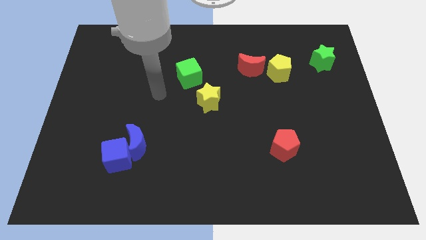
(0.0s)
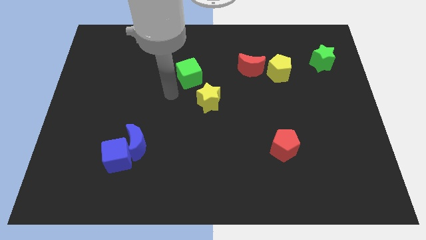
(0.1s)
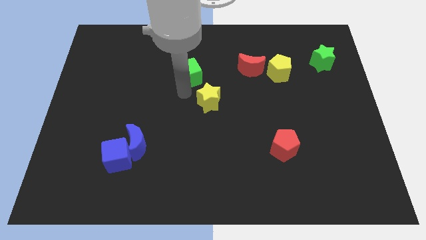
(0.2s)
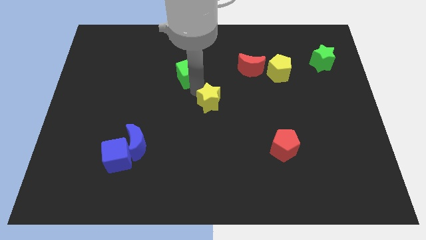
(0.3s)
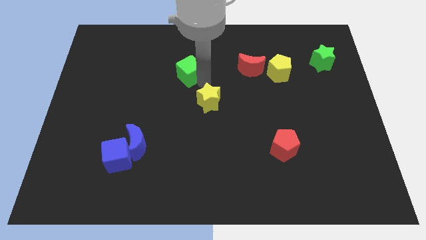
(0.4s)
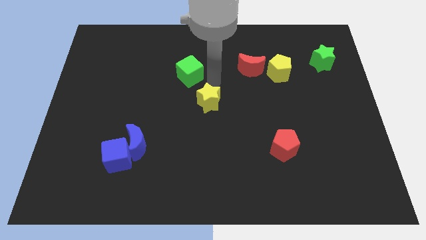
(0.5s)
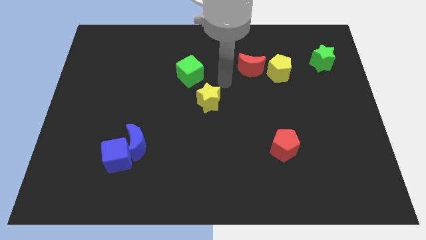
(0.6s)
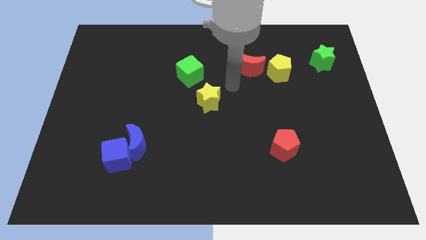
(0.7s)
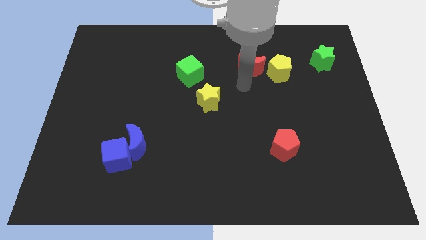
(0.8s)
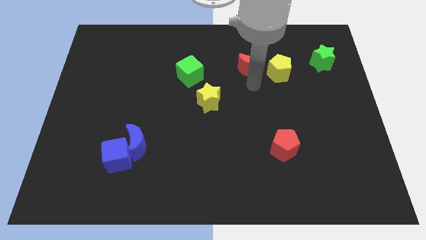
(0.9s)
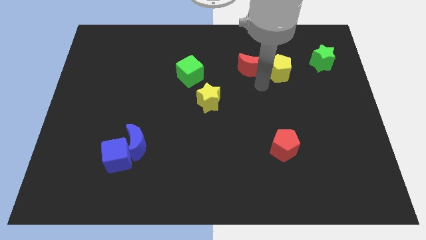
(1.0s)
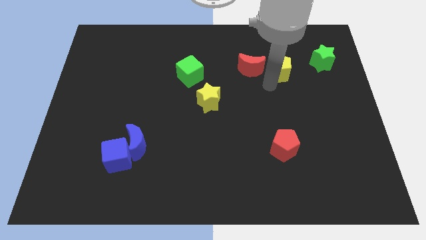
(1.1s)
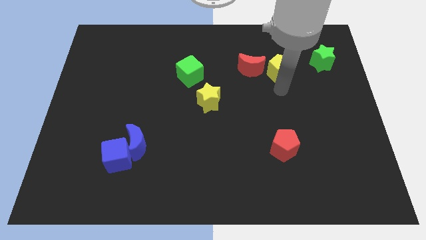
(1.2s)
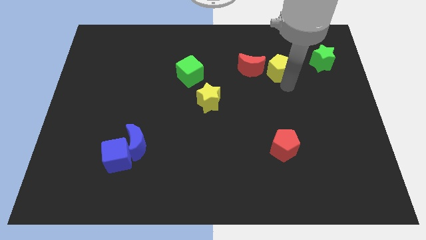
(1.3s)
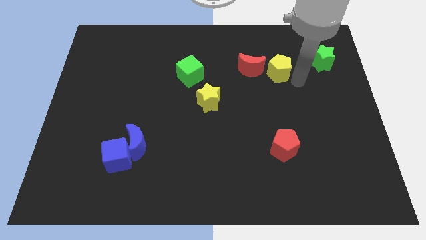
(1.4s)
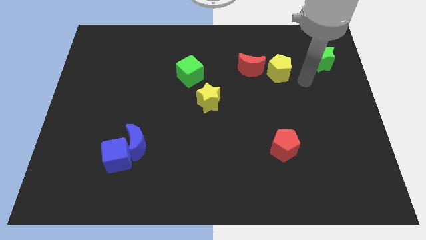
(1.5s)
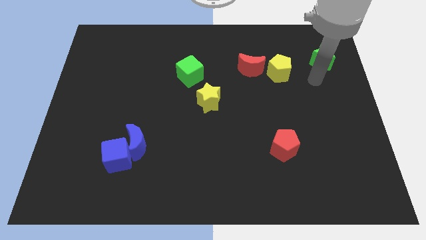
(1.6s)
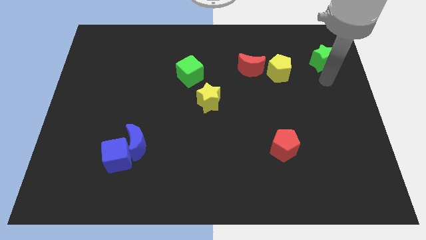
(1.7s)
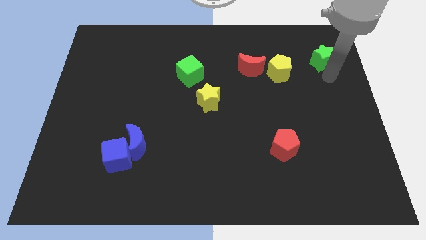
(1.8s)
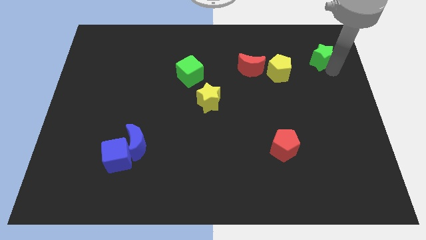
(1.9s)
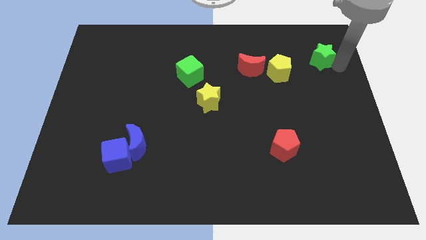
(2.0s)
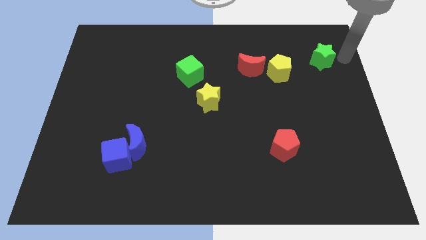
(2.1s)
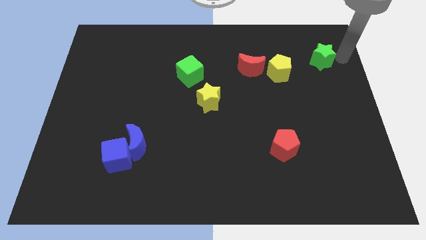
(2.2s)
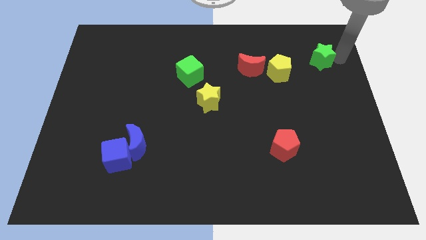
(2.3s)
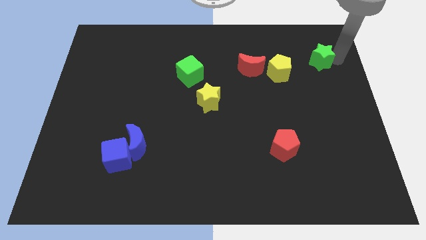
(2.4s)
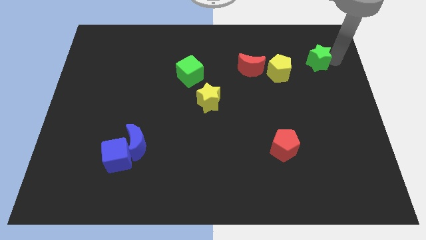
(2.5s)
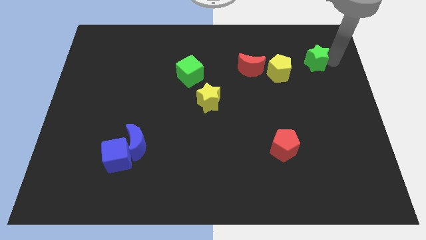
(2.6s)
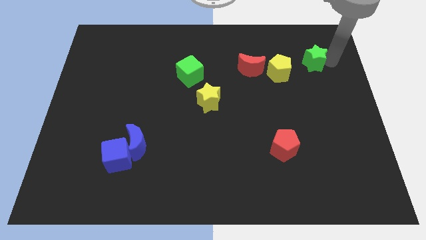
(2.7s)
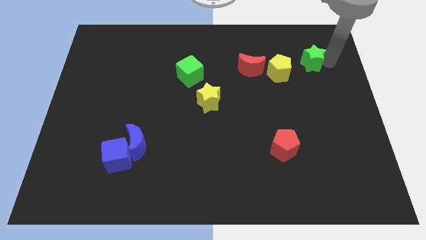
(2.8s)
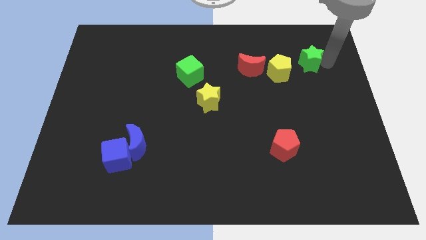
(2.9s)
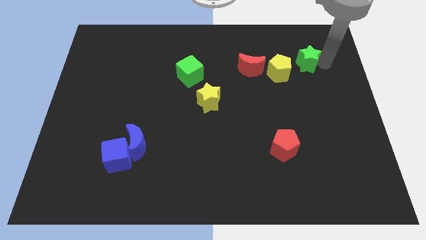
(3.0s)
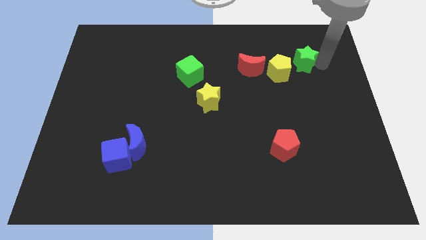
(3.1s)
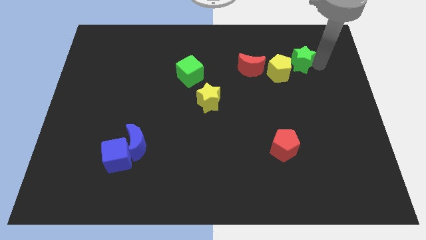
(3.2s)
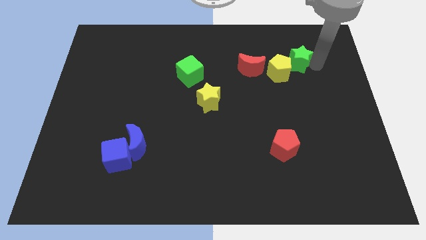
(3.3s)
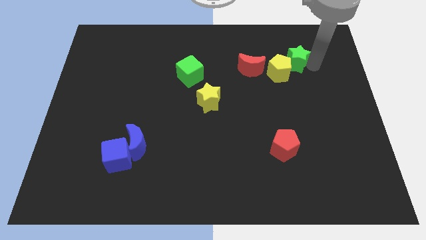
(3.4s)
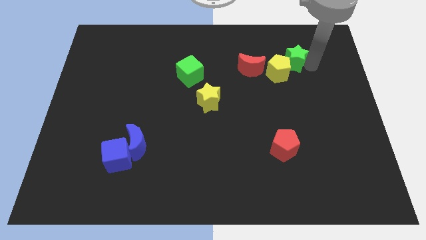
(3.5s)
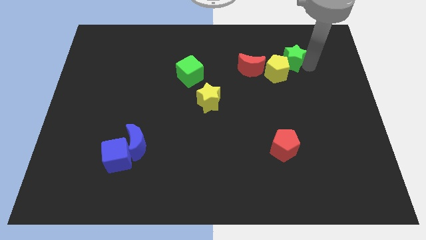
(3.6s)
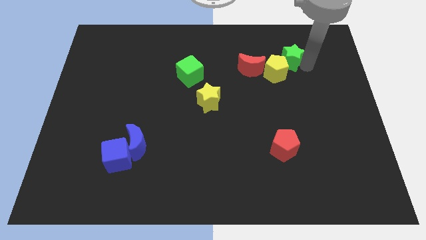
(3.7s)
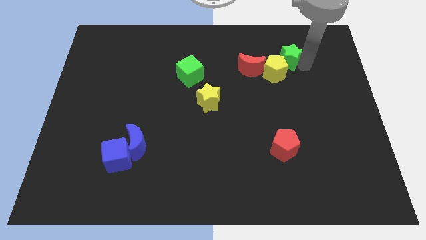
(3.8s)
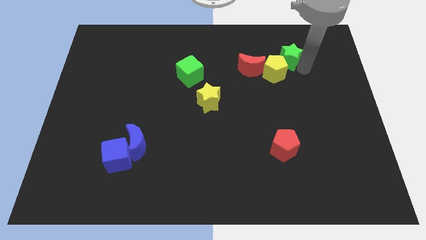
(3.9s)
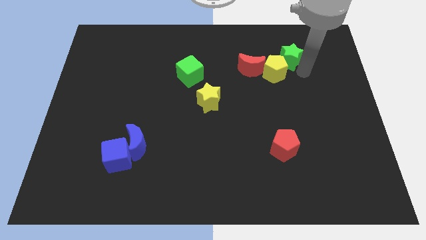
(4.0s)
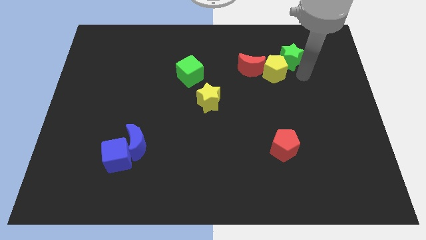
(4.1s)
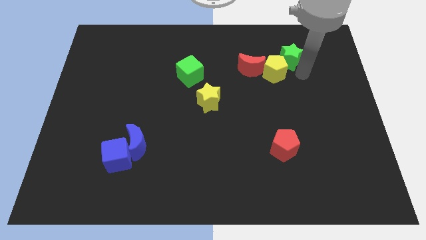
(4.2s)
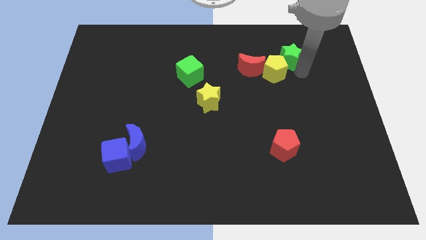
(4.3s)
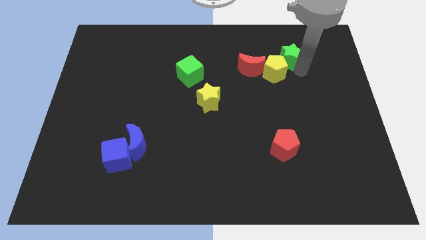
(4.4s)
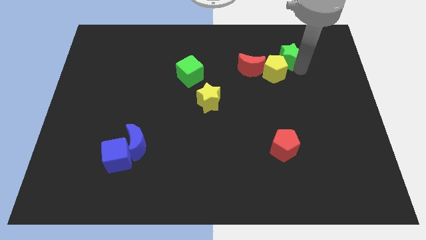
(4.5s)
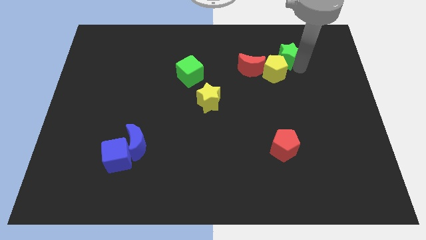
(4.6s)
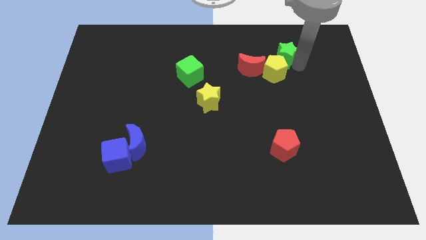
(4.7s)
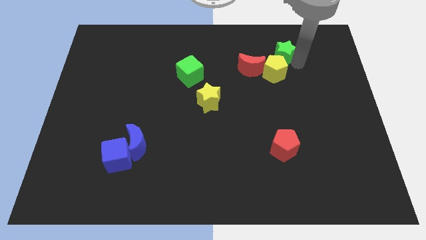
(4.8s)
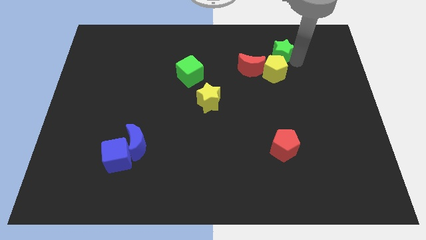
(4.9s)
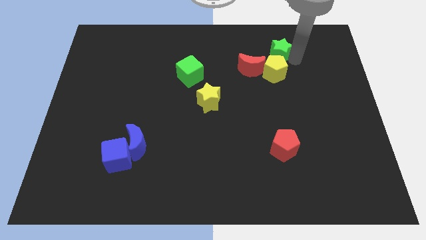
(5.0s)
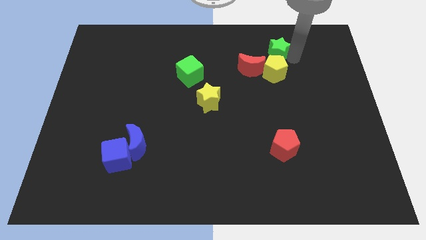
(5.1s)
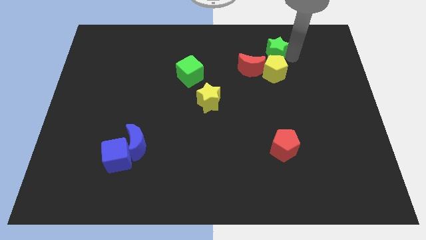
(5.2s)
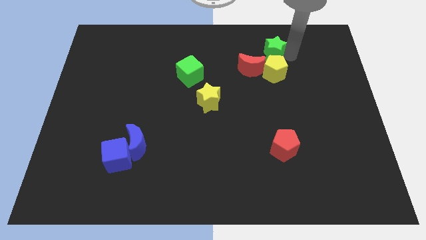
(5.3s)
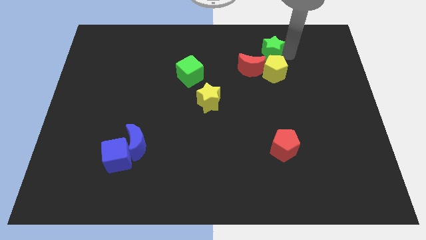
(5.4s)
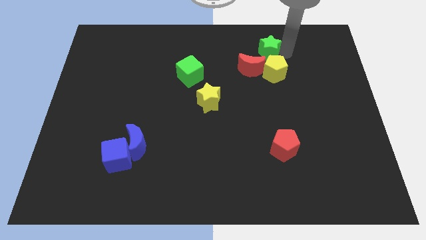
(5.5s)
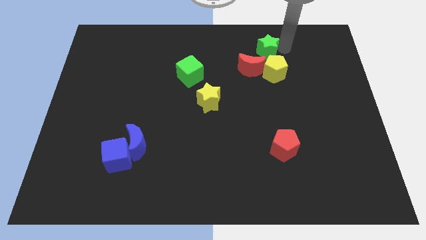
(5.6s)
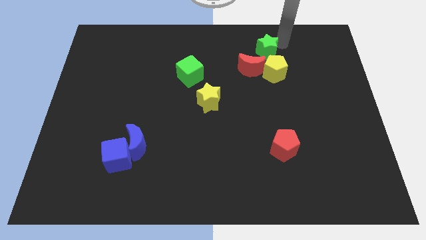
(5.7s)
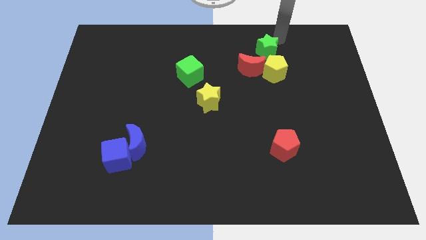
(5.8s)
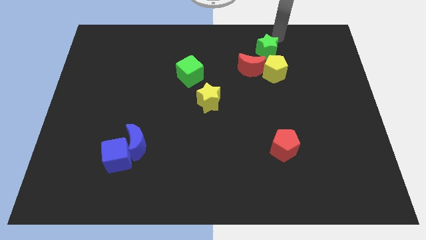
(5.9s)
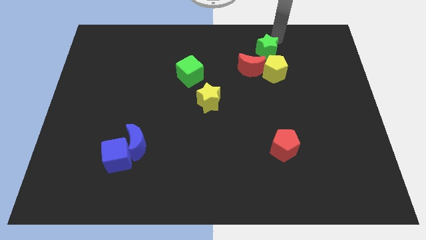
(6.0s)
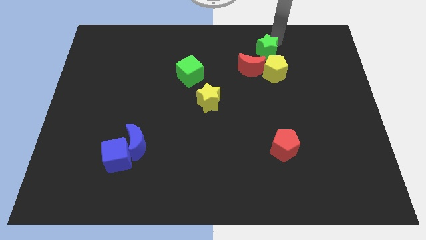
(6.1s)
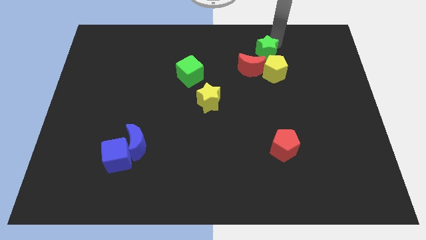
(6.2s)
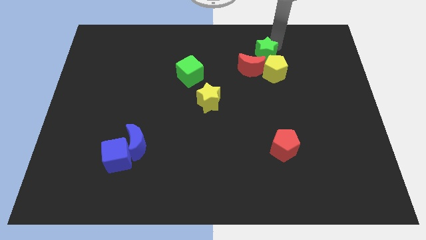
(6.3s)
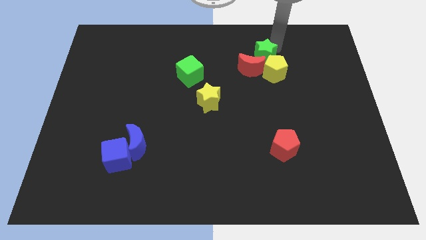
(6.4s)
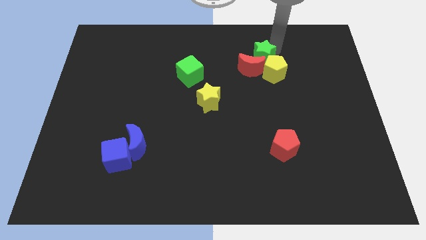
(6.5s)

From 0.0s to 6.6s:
push the green star close to the red moon
